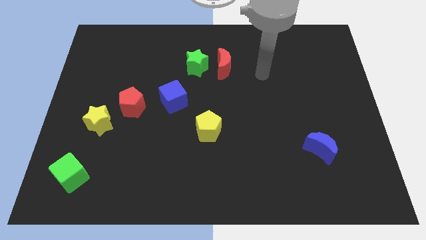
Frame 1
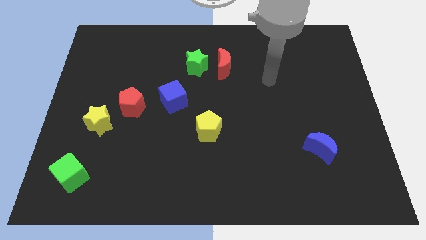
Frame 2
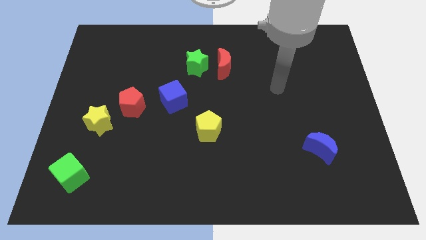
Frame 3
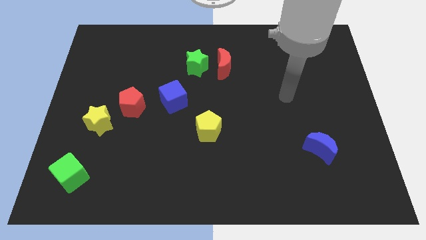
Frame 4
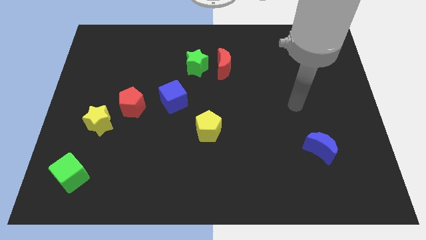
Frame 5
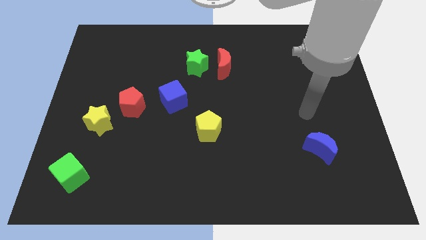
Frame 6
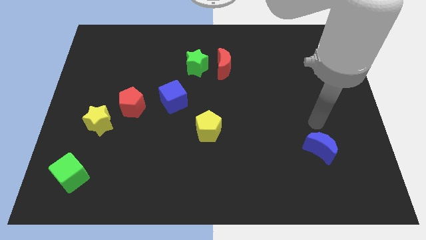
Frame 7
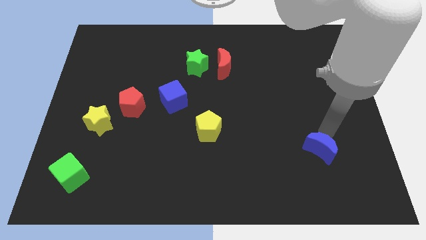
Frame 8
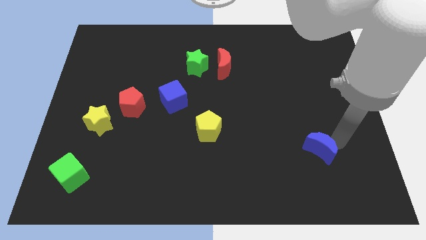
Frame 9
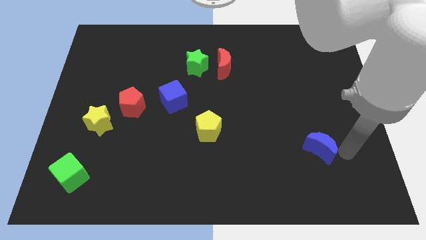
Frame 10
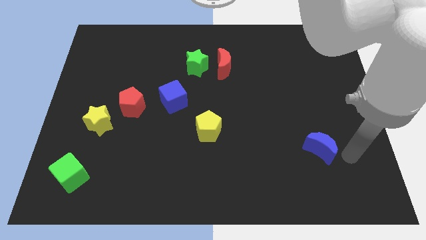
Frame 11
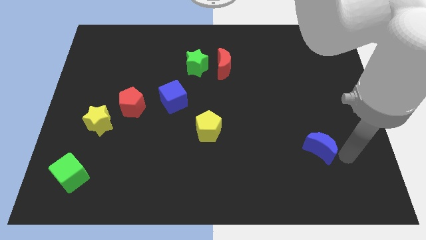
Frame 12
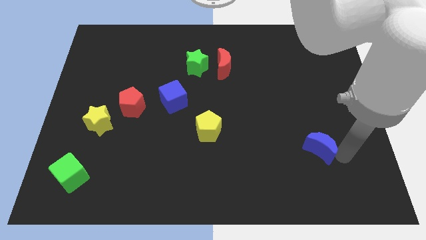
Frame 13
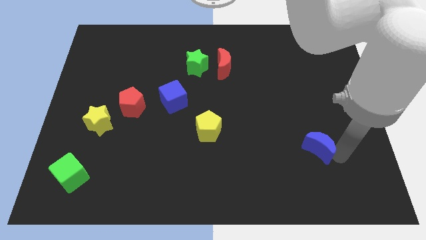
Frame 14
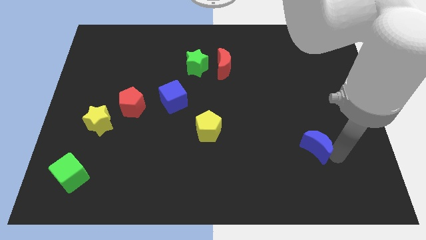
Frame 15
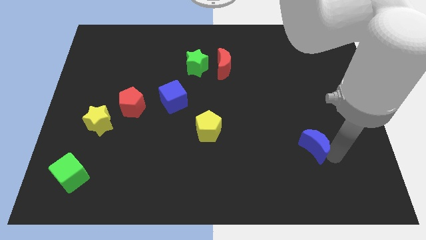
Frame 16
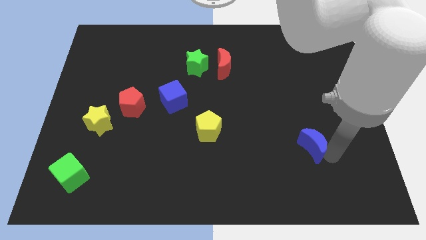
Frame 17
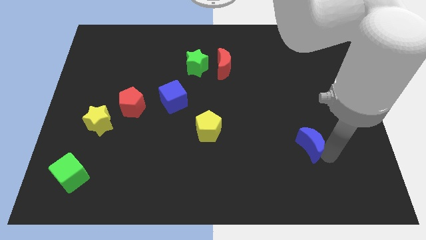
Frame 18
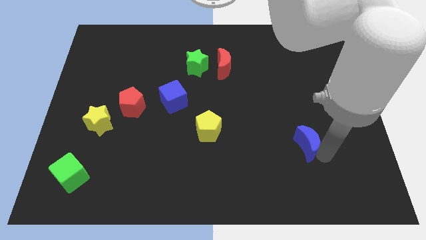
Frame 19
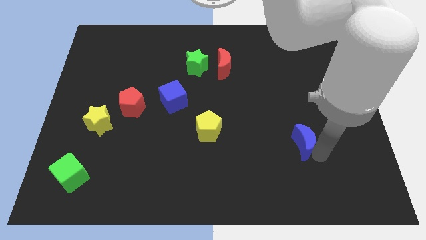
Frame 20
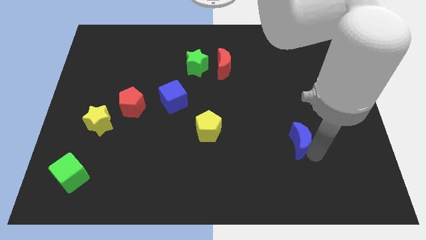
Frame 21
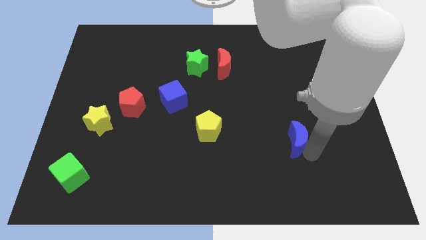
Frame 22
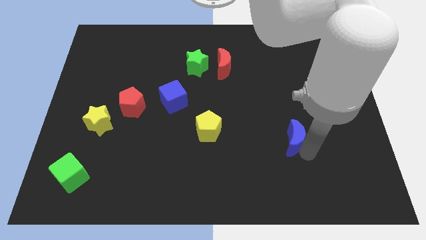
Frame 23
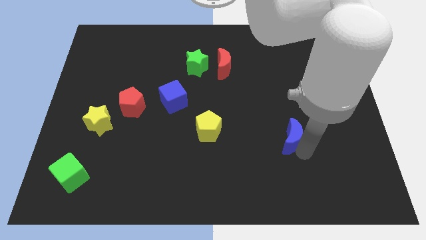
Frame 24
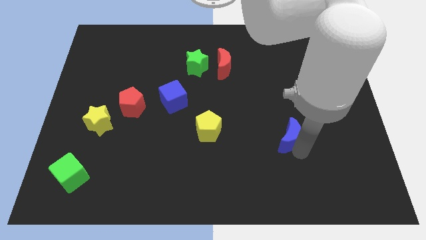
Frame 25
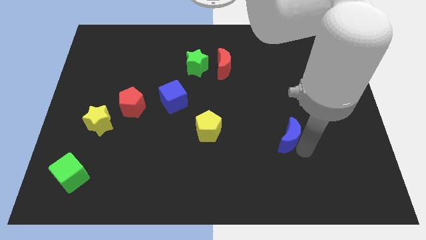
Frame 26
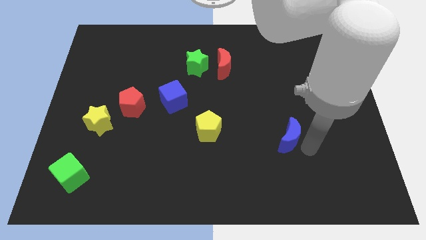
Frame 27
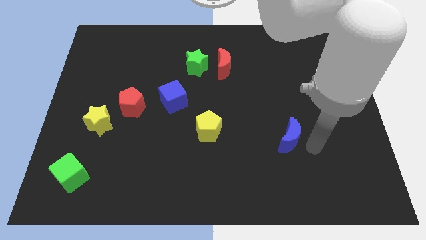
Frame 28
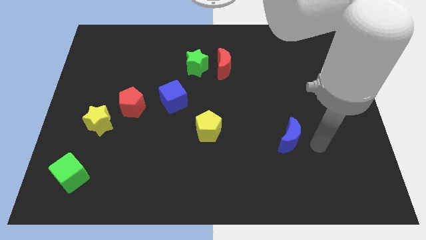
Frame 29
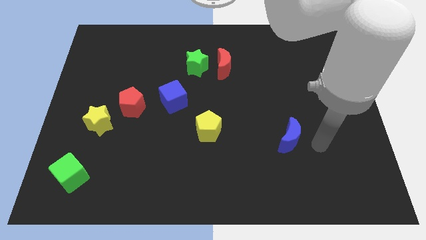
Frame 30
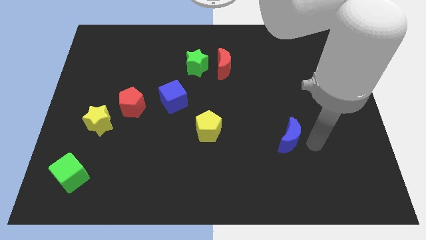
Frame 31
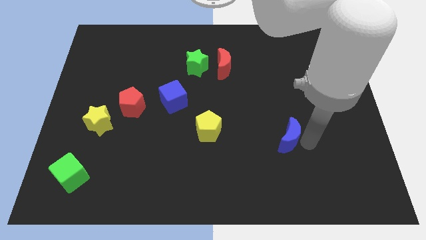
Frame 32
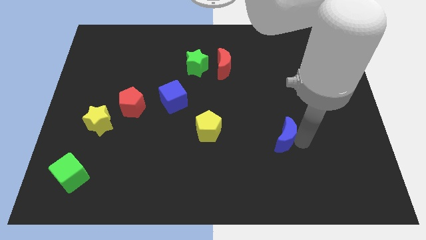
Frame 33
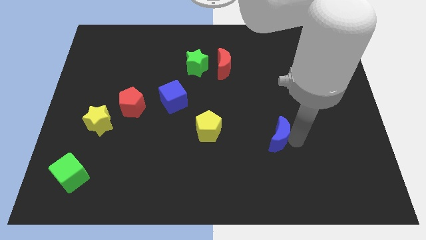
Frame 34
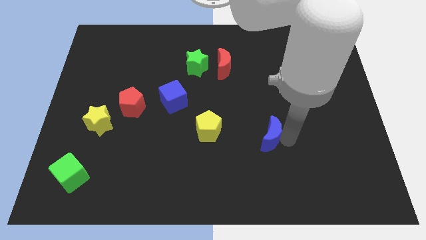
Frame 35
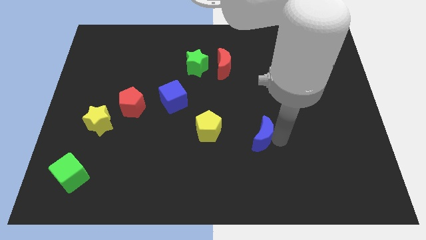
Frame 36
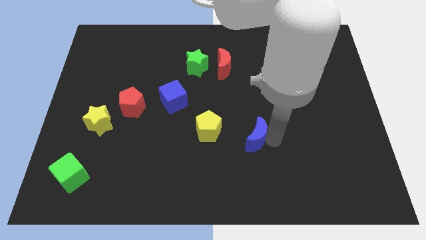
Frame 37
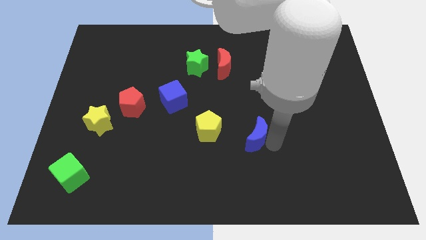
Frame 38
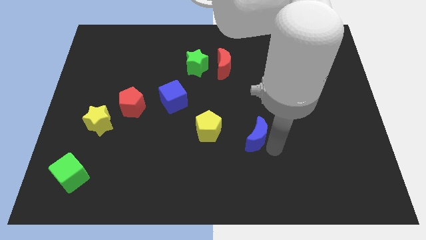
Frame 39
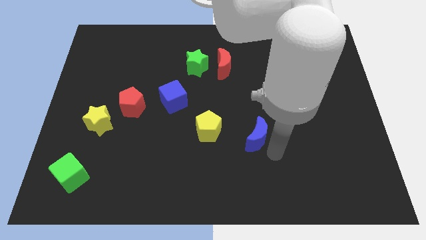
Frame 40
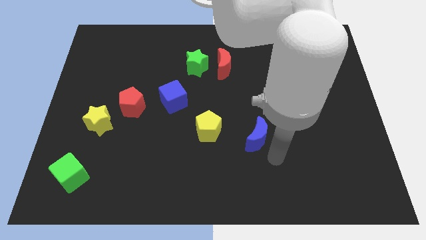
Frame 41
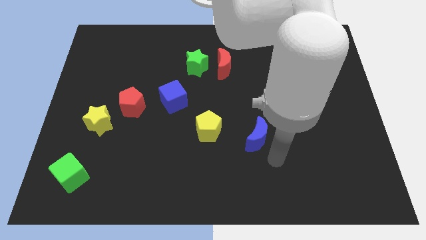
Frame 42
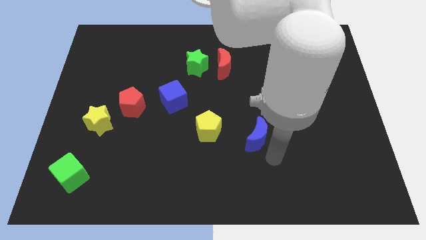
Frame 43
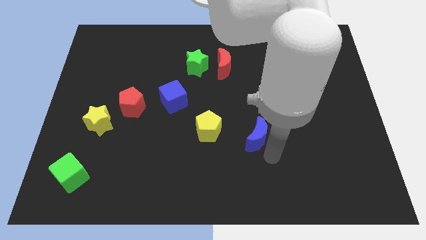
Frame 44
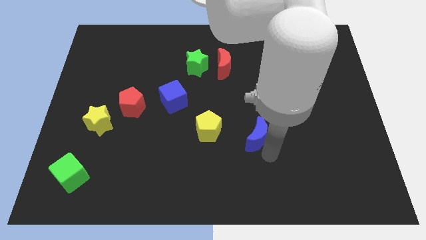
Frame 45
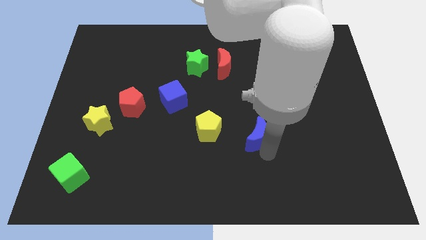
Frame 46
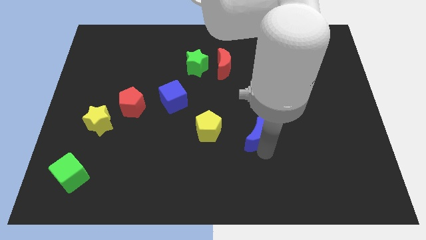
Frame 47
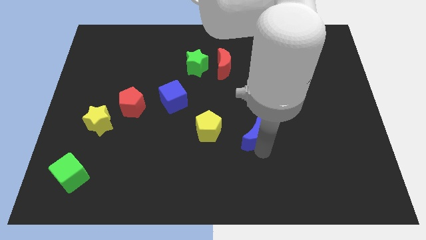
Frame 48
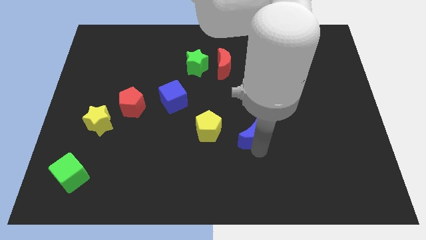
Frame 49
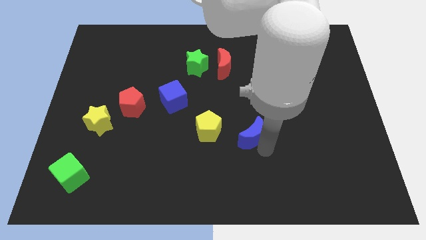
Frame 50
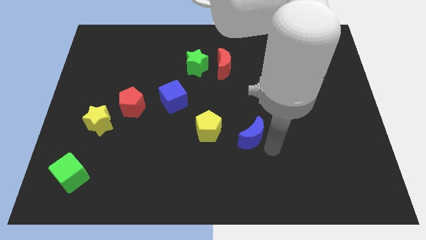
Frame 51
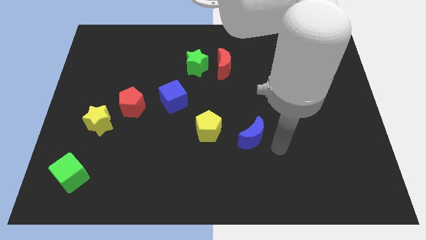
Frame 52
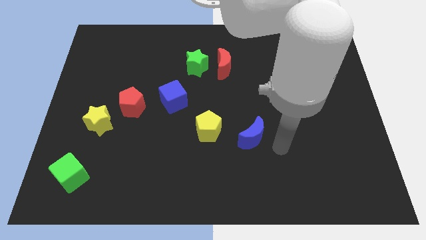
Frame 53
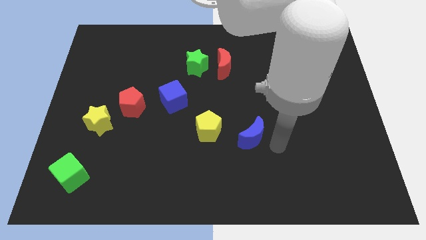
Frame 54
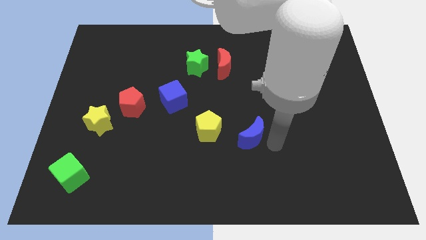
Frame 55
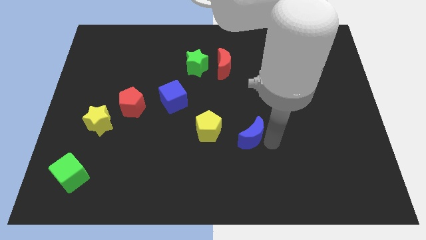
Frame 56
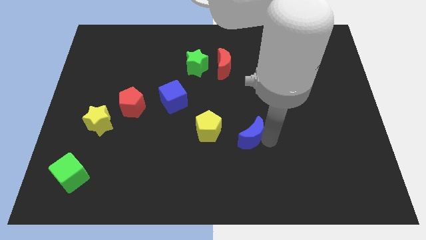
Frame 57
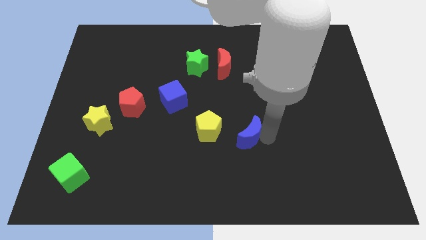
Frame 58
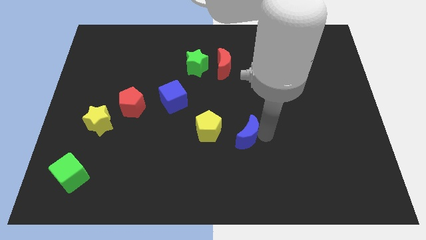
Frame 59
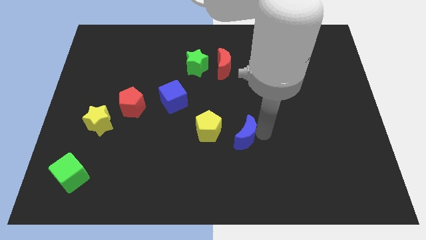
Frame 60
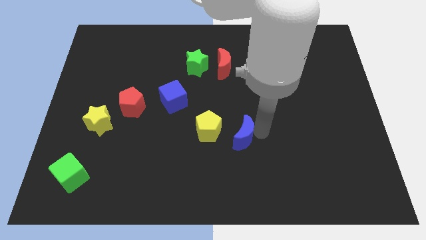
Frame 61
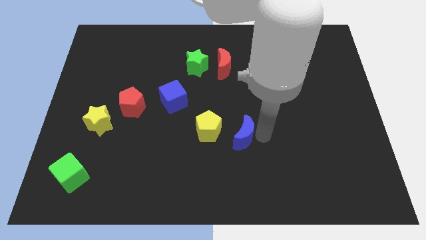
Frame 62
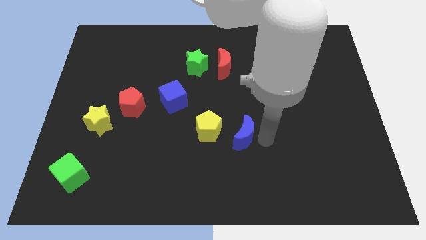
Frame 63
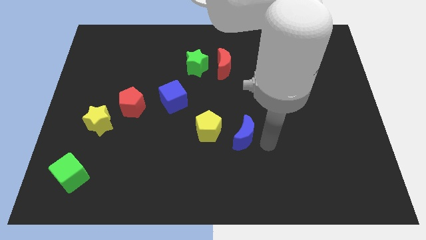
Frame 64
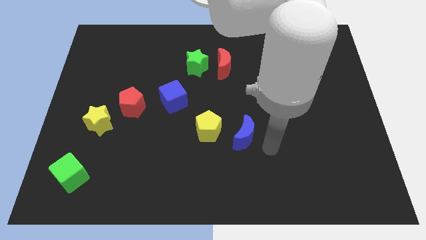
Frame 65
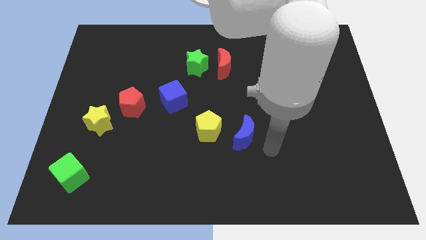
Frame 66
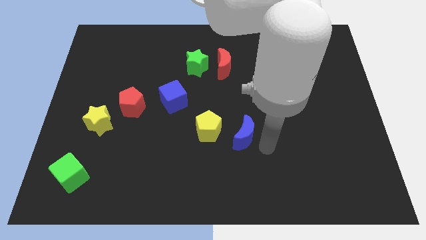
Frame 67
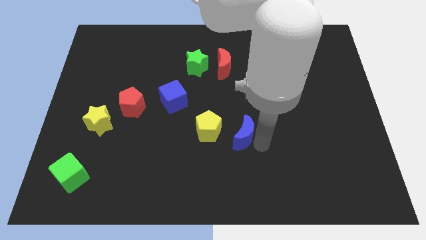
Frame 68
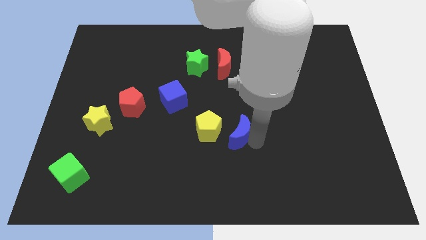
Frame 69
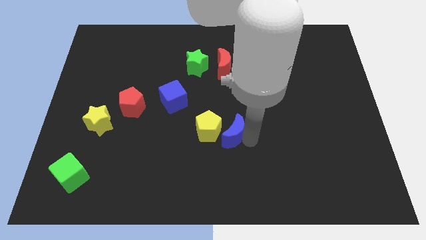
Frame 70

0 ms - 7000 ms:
push the blue moon towards the yellow pentagon
